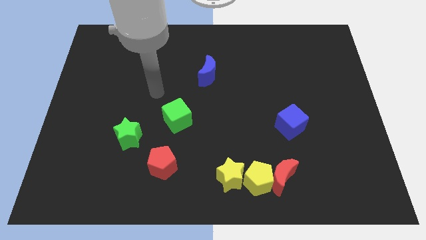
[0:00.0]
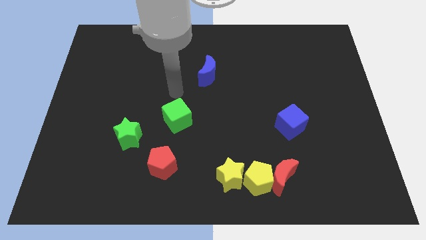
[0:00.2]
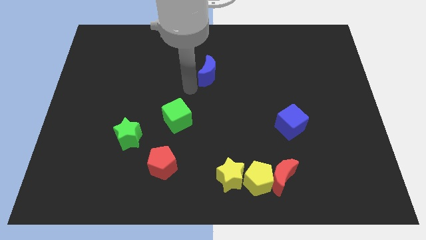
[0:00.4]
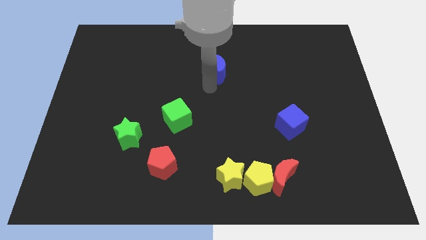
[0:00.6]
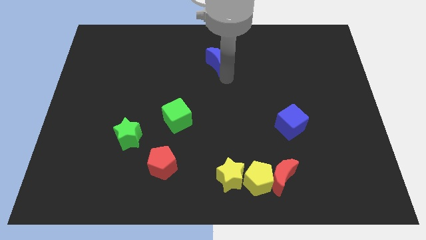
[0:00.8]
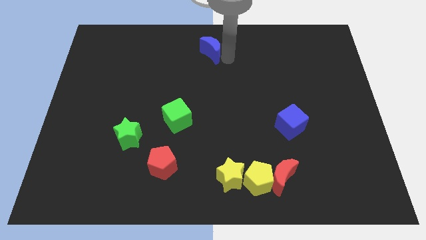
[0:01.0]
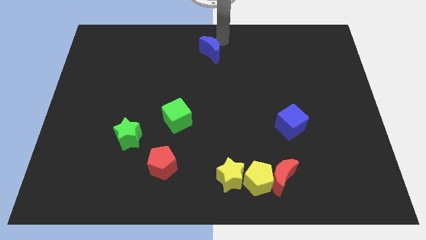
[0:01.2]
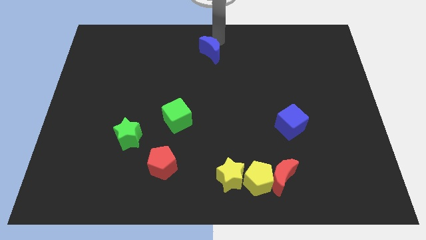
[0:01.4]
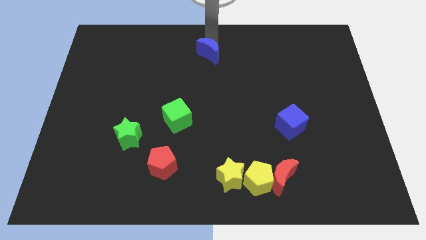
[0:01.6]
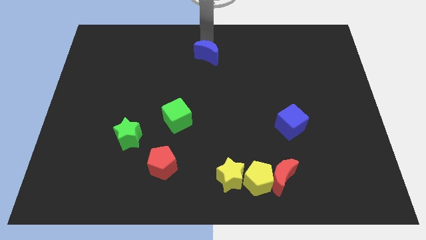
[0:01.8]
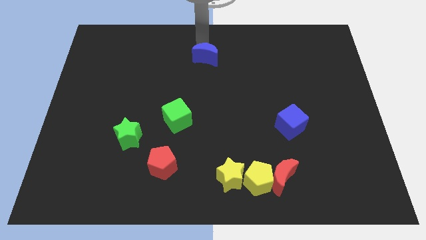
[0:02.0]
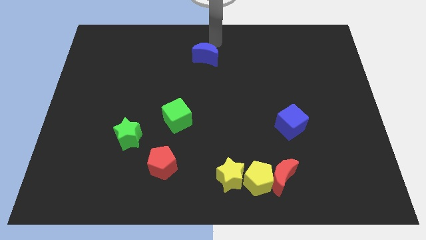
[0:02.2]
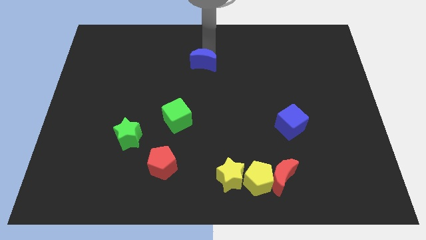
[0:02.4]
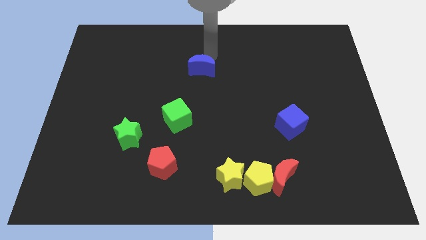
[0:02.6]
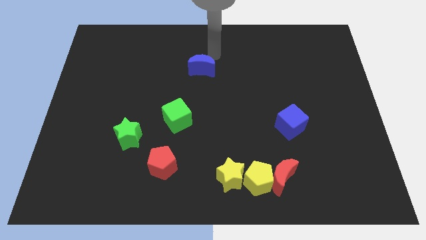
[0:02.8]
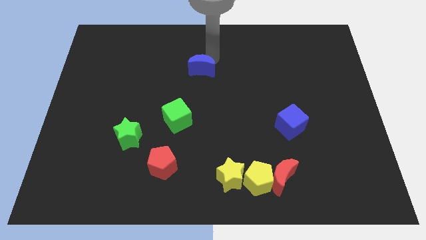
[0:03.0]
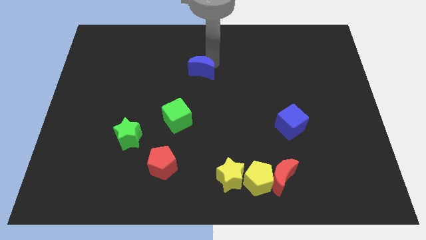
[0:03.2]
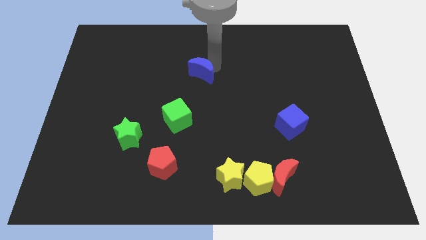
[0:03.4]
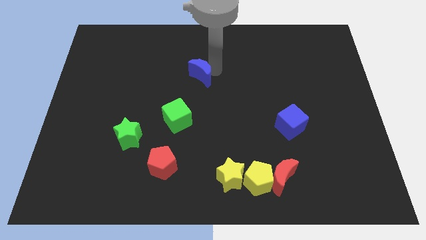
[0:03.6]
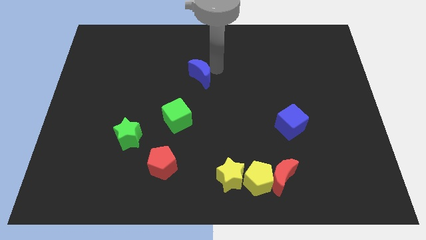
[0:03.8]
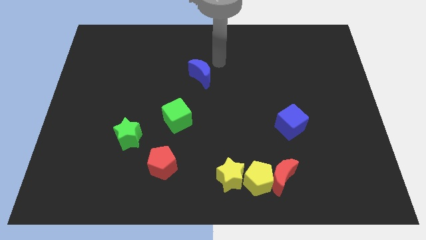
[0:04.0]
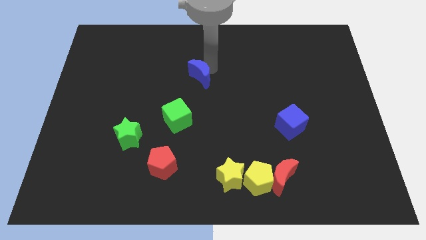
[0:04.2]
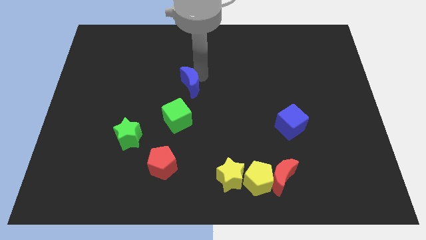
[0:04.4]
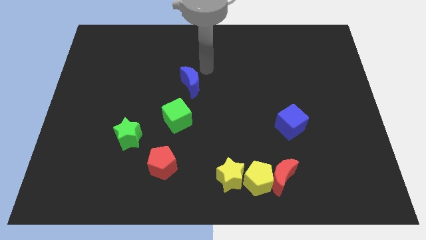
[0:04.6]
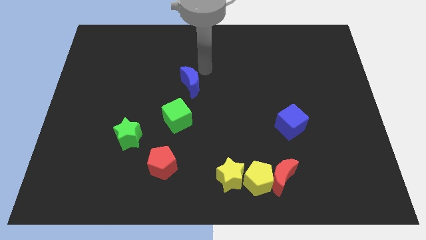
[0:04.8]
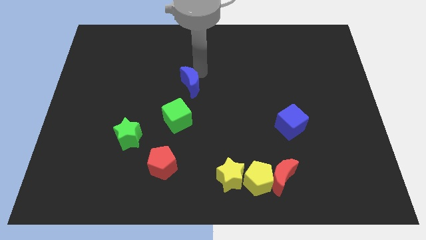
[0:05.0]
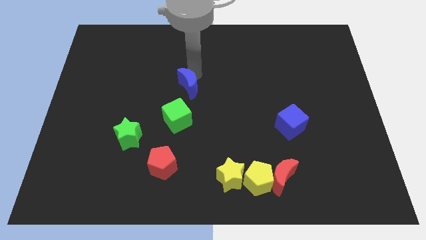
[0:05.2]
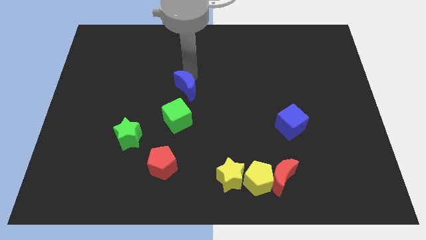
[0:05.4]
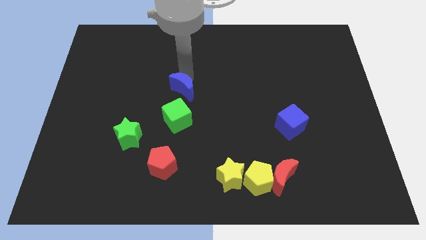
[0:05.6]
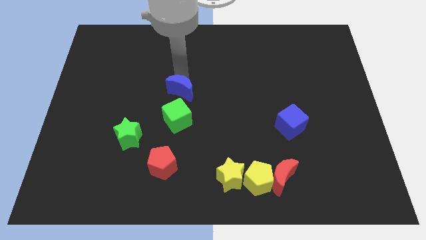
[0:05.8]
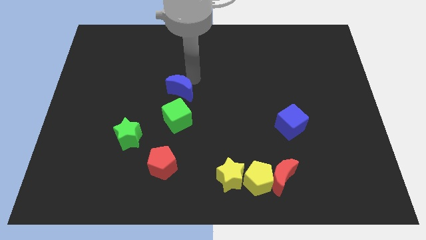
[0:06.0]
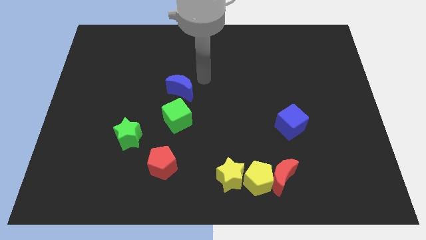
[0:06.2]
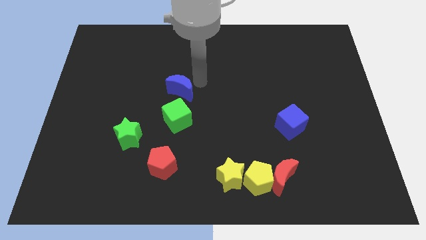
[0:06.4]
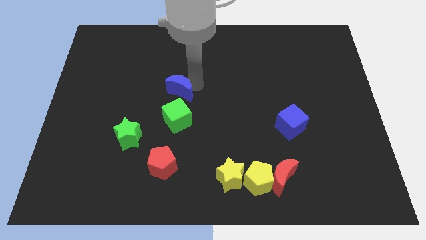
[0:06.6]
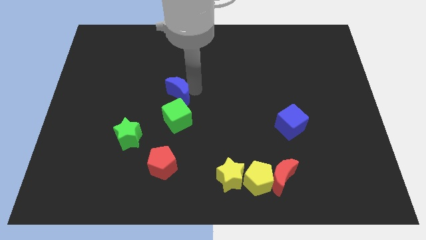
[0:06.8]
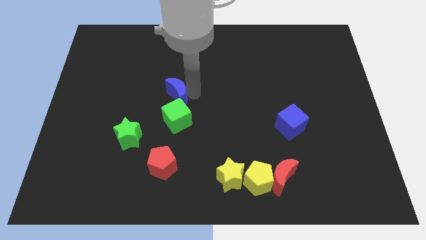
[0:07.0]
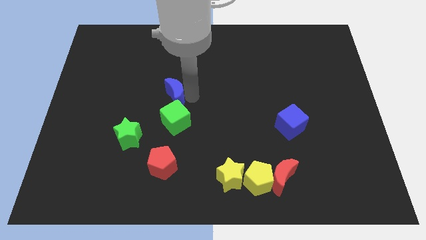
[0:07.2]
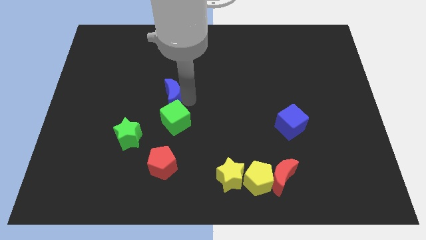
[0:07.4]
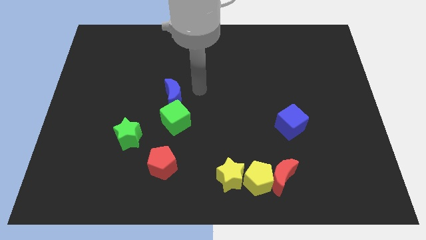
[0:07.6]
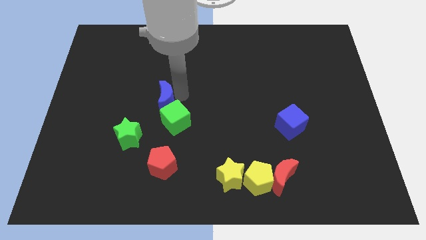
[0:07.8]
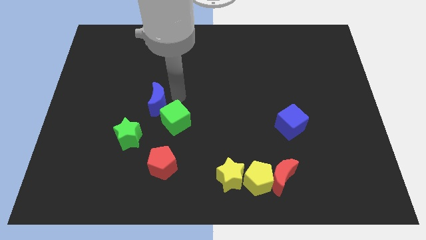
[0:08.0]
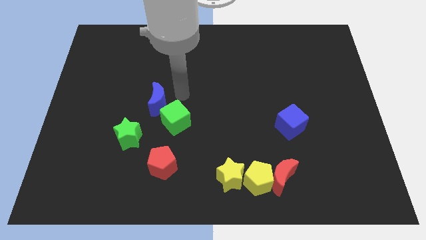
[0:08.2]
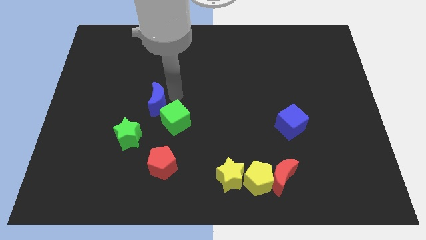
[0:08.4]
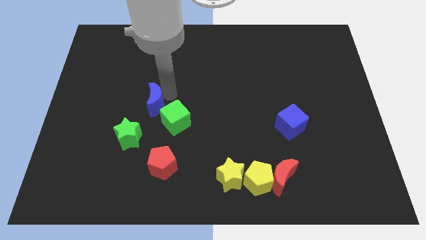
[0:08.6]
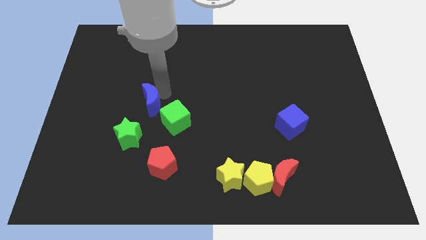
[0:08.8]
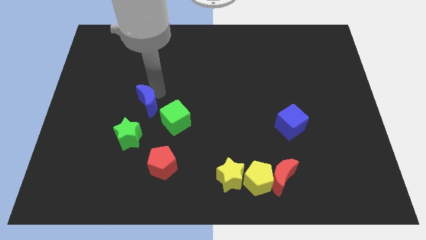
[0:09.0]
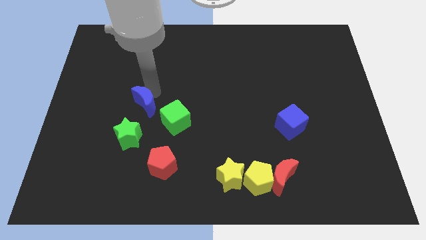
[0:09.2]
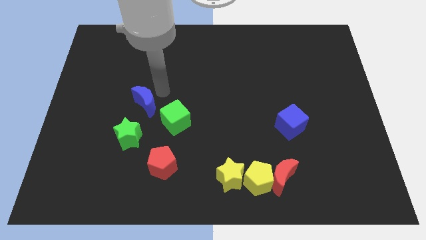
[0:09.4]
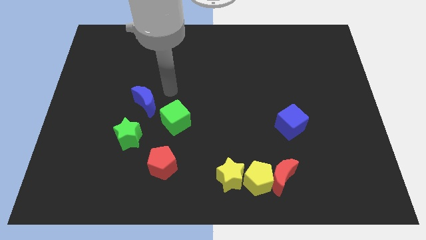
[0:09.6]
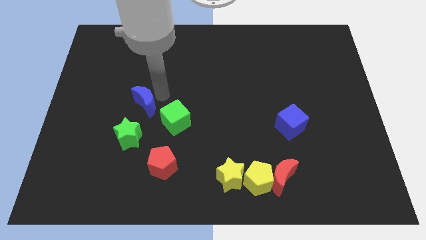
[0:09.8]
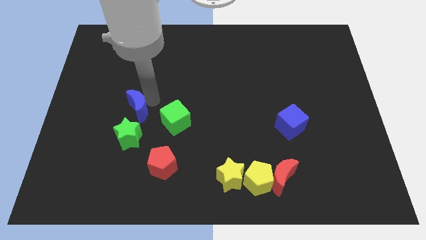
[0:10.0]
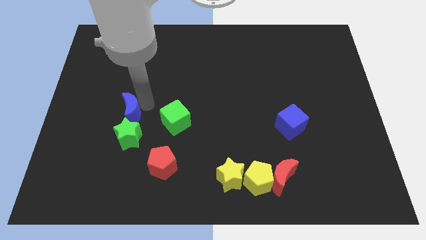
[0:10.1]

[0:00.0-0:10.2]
push the blue moon to the top left side of the green star

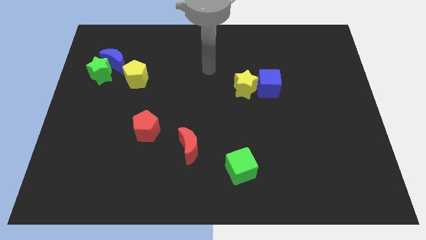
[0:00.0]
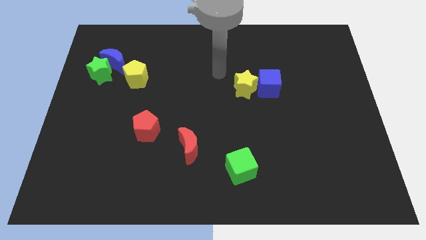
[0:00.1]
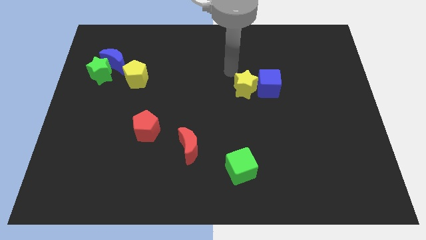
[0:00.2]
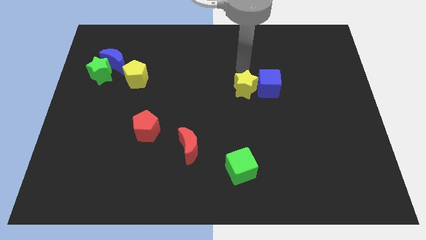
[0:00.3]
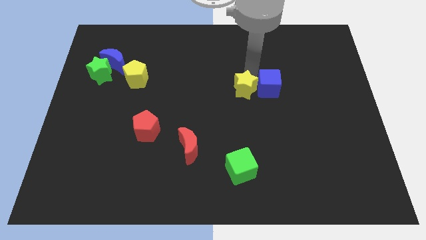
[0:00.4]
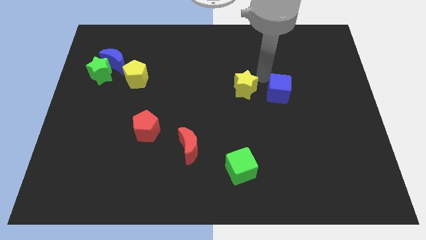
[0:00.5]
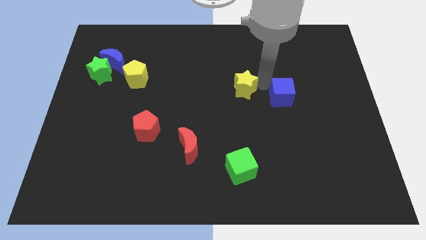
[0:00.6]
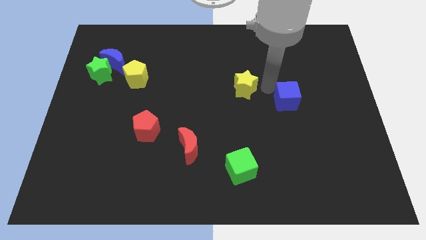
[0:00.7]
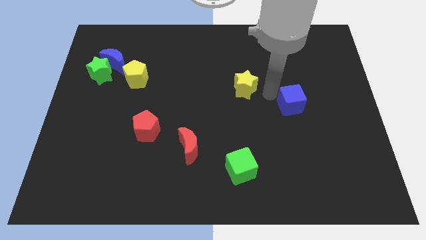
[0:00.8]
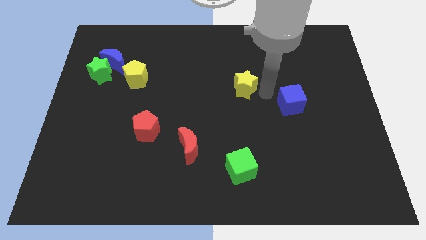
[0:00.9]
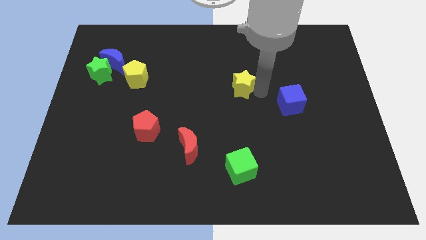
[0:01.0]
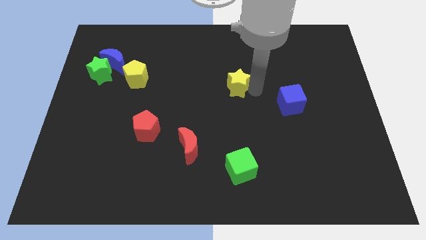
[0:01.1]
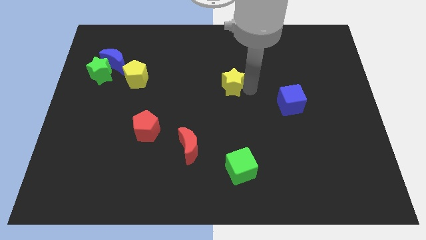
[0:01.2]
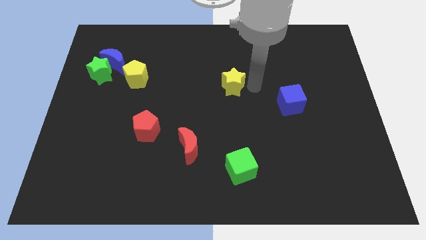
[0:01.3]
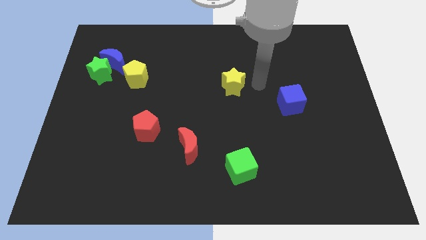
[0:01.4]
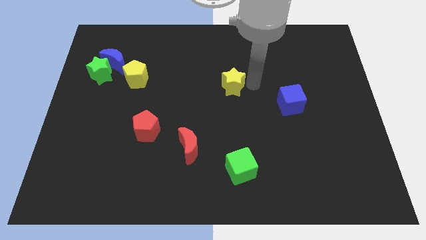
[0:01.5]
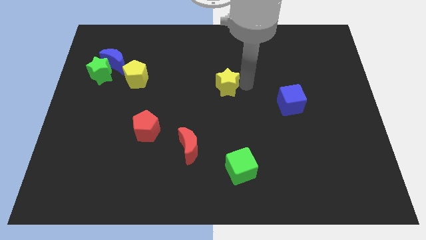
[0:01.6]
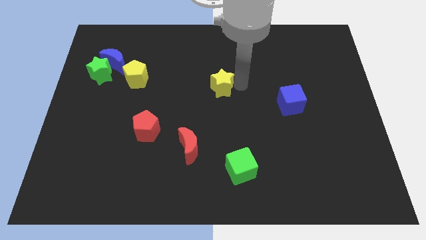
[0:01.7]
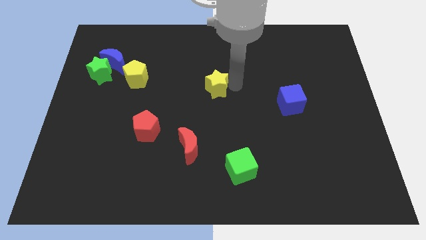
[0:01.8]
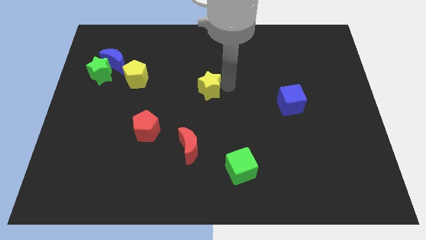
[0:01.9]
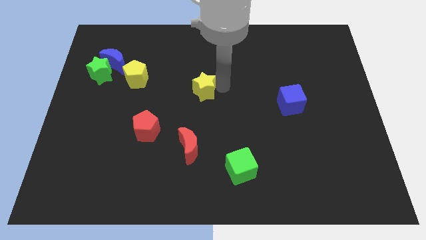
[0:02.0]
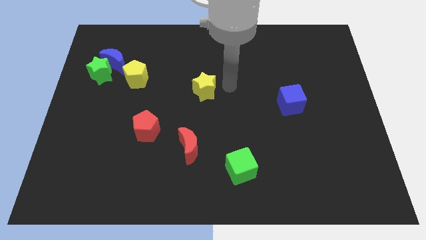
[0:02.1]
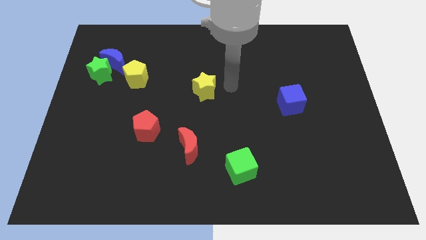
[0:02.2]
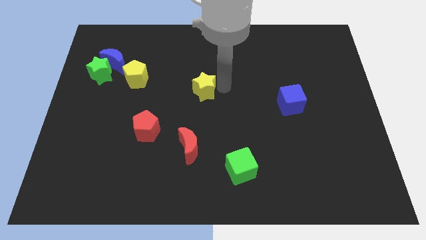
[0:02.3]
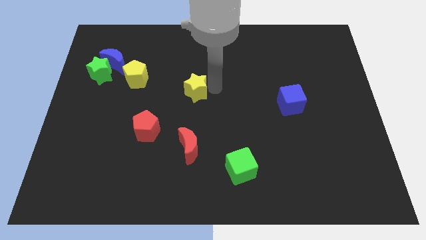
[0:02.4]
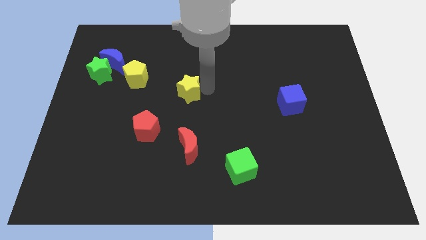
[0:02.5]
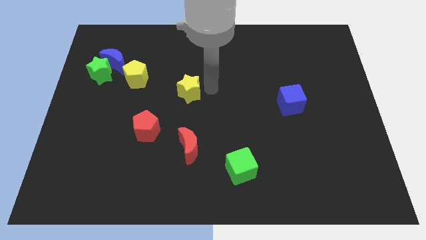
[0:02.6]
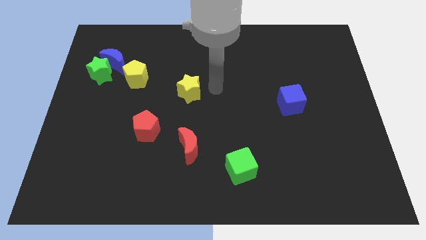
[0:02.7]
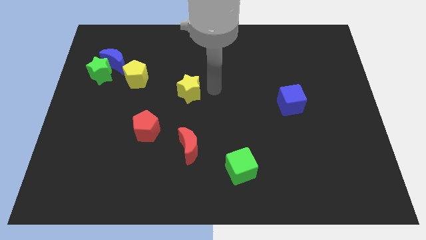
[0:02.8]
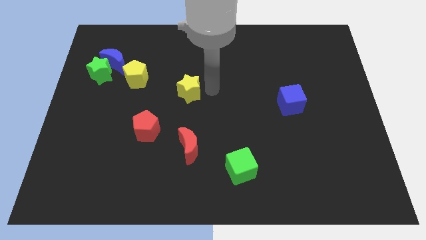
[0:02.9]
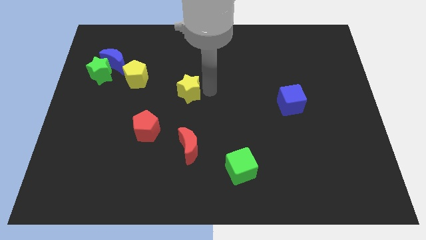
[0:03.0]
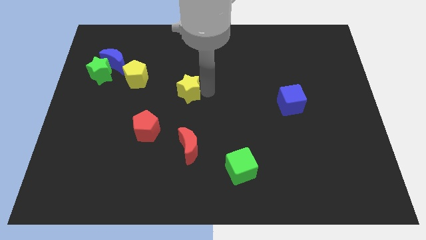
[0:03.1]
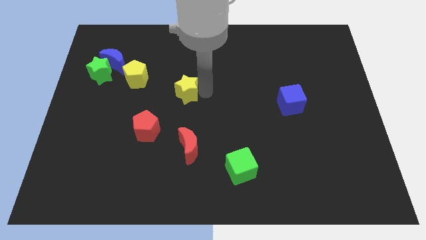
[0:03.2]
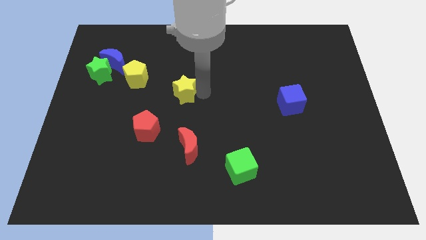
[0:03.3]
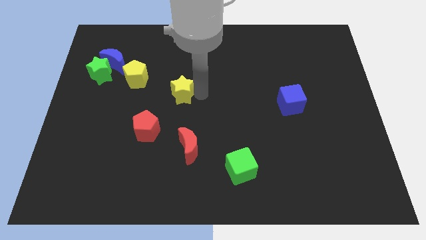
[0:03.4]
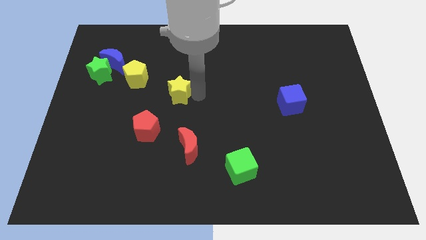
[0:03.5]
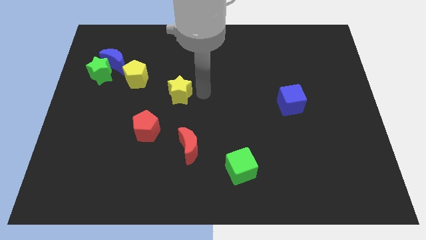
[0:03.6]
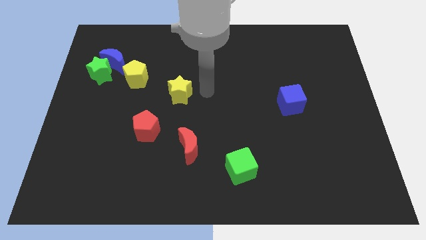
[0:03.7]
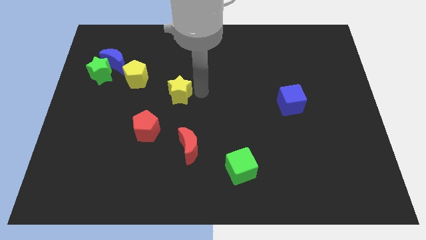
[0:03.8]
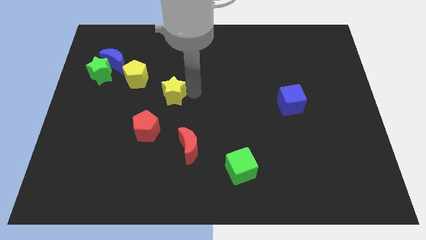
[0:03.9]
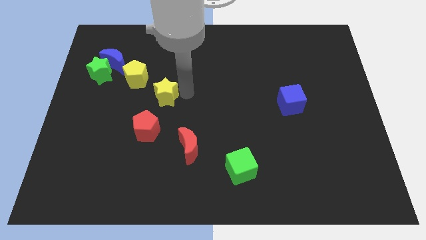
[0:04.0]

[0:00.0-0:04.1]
put the yellow star above the red pentagon
